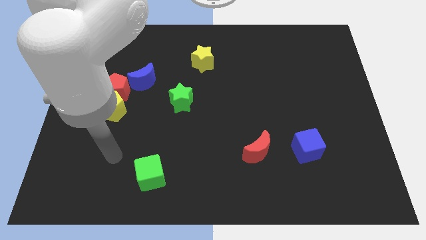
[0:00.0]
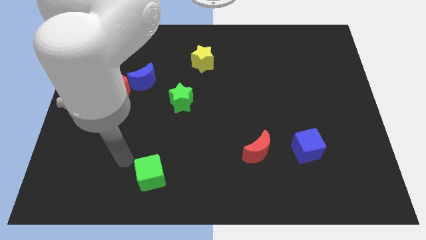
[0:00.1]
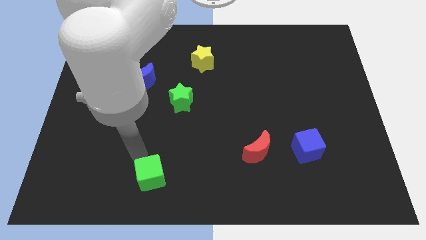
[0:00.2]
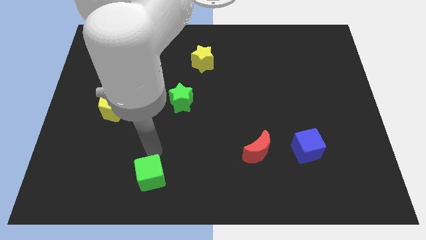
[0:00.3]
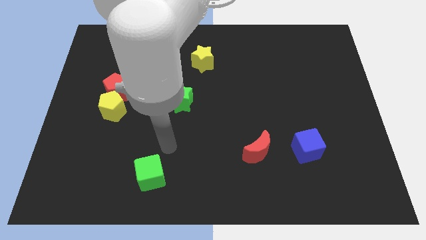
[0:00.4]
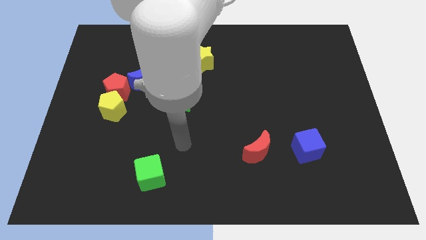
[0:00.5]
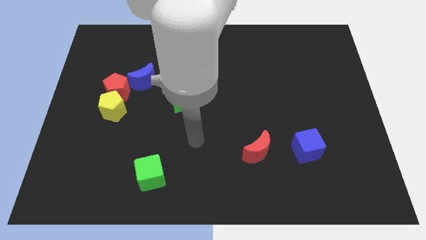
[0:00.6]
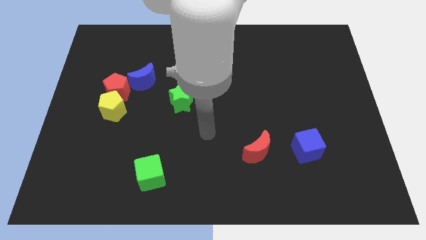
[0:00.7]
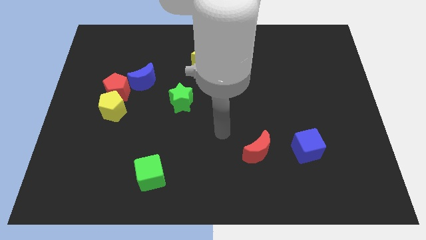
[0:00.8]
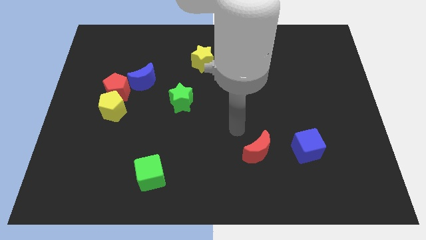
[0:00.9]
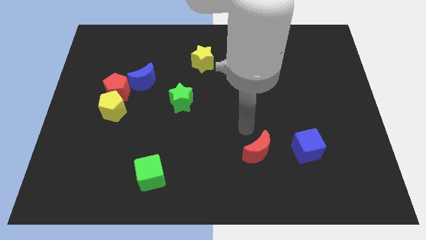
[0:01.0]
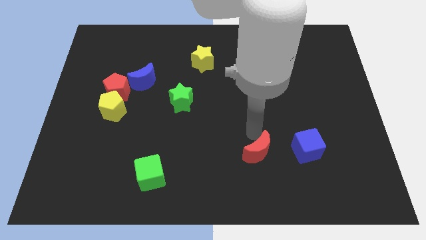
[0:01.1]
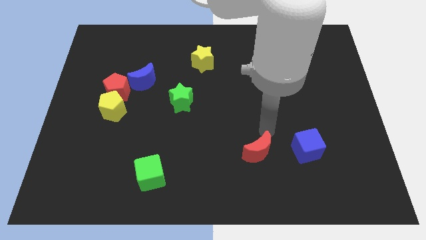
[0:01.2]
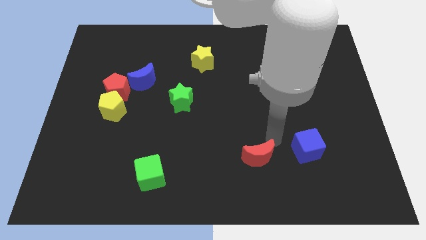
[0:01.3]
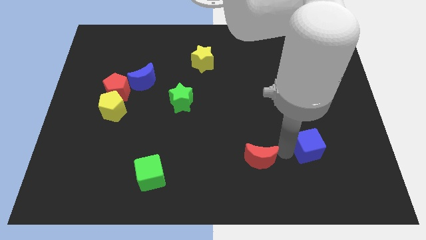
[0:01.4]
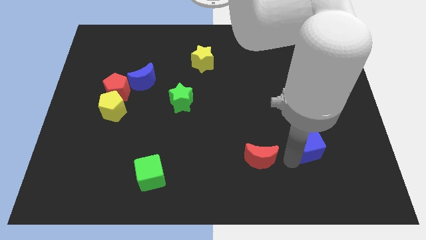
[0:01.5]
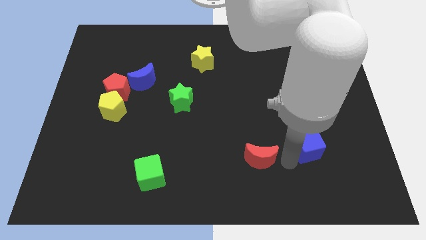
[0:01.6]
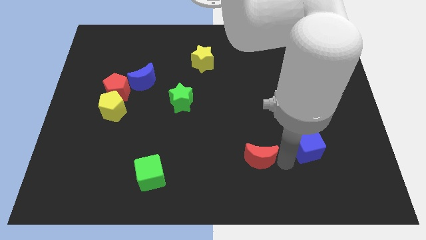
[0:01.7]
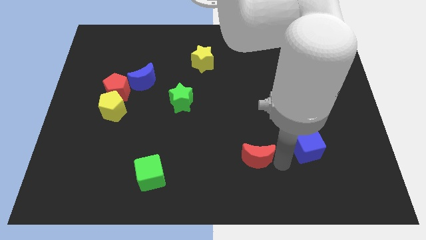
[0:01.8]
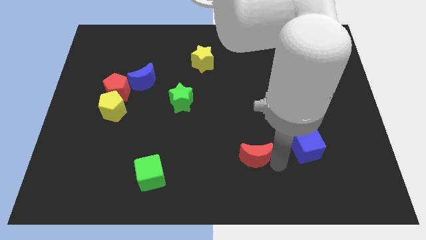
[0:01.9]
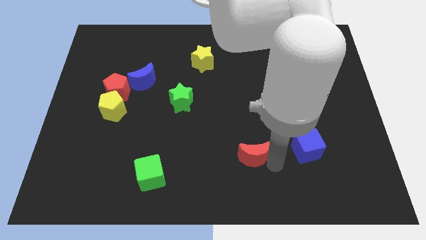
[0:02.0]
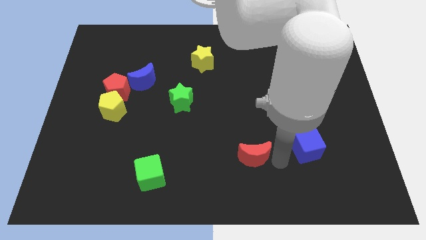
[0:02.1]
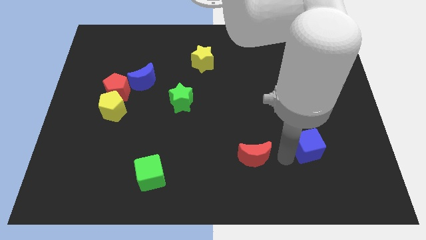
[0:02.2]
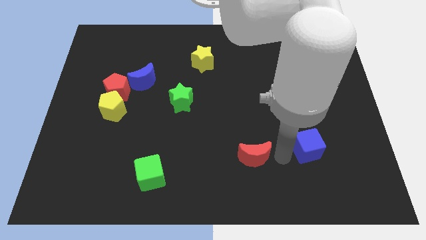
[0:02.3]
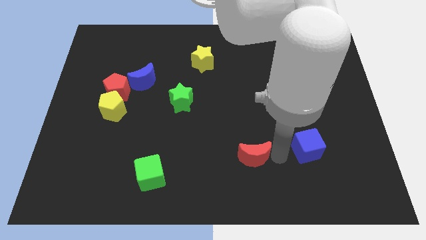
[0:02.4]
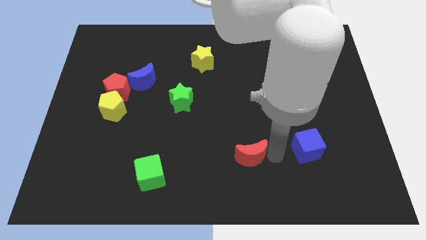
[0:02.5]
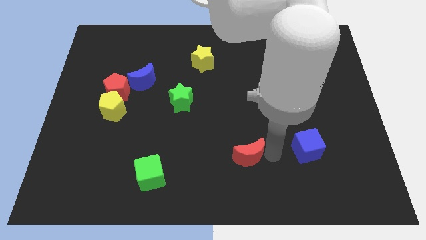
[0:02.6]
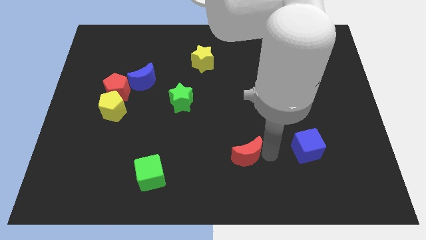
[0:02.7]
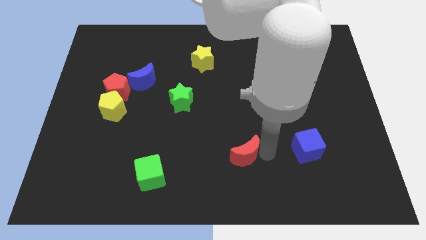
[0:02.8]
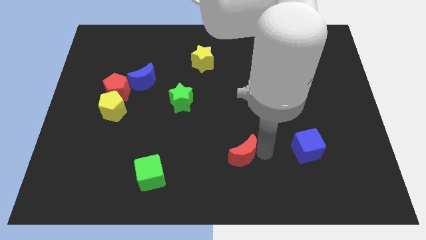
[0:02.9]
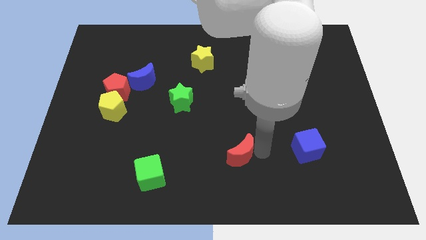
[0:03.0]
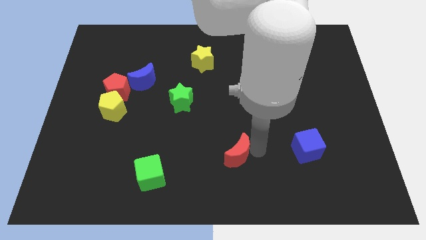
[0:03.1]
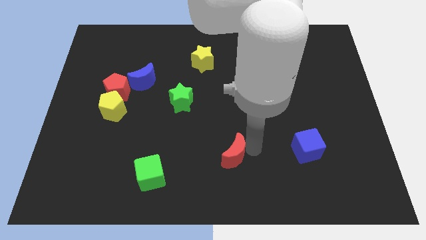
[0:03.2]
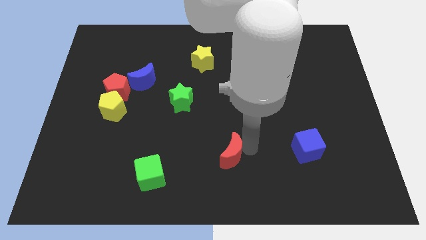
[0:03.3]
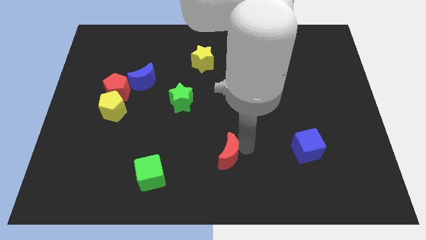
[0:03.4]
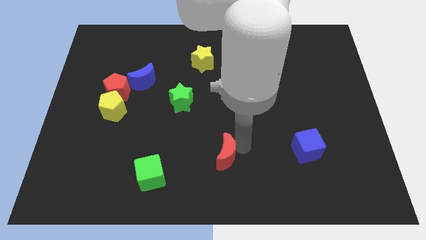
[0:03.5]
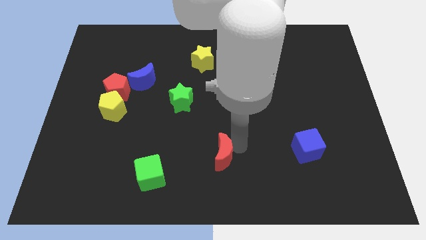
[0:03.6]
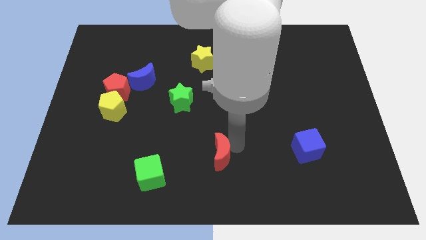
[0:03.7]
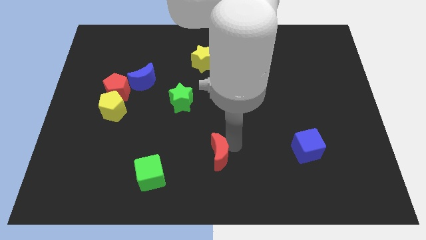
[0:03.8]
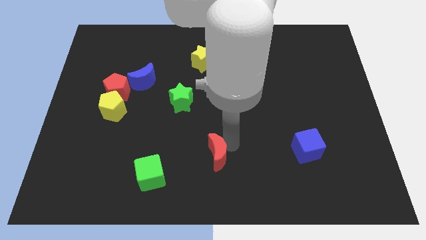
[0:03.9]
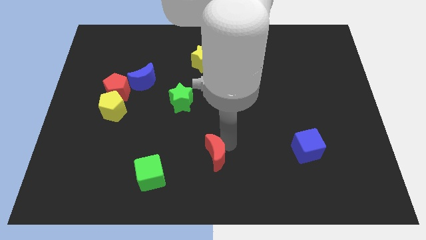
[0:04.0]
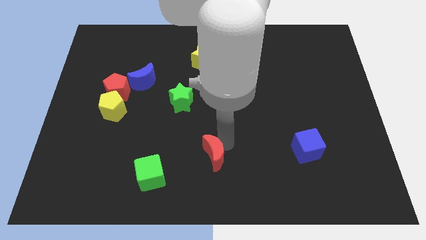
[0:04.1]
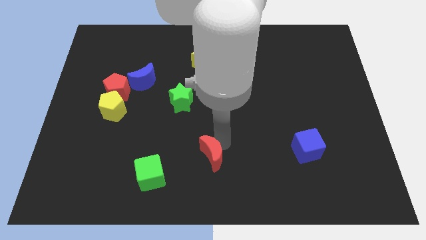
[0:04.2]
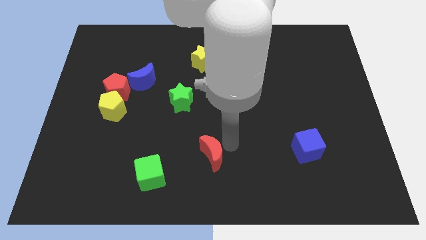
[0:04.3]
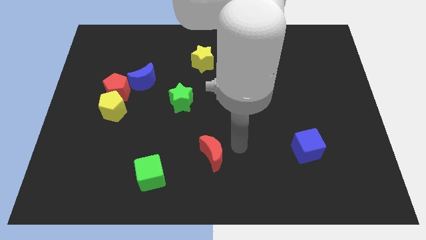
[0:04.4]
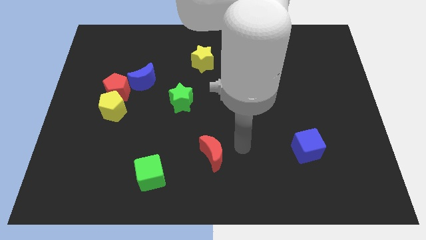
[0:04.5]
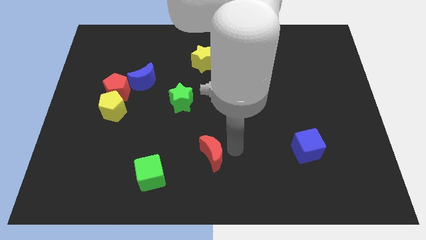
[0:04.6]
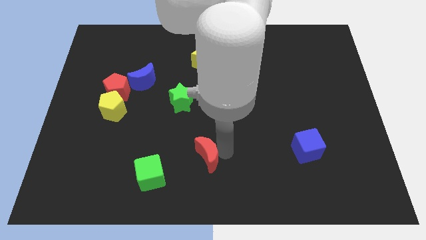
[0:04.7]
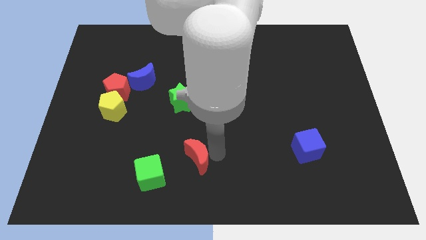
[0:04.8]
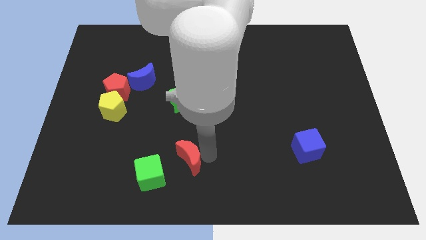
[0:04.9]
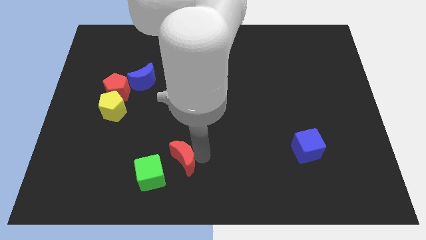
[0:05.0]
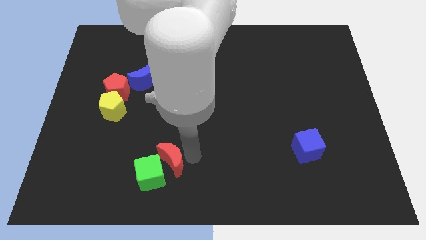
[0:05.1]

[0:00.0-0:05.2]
put the red moon to the green cube

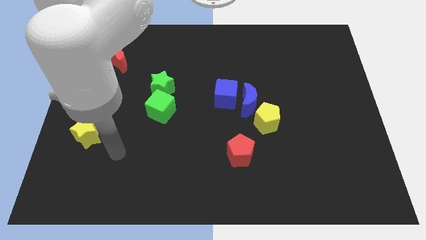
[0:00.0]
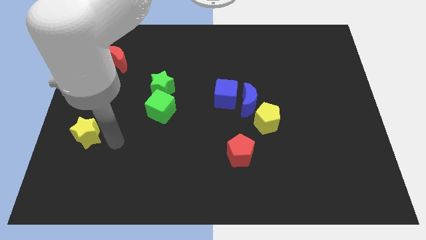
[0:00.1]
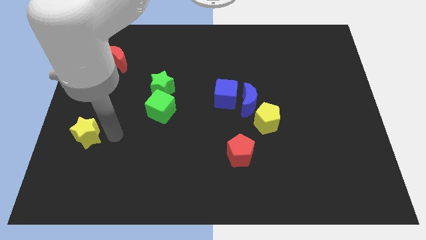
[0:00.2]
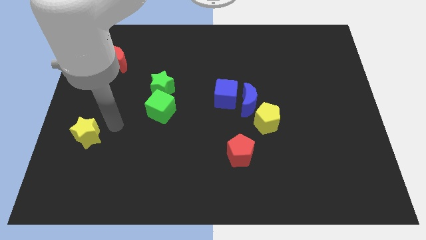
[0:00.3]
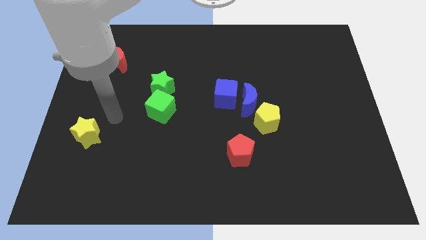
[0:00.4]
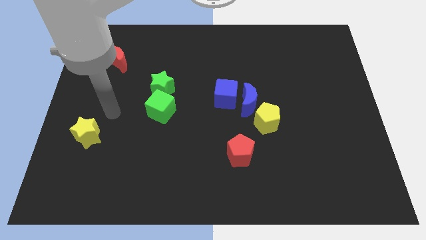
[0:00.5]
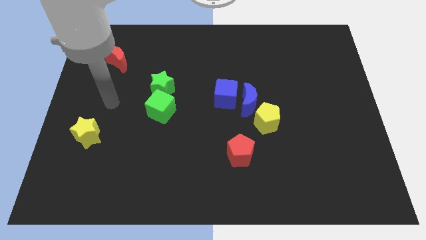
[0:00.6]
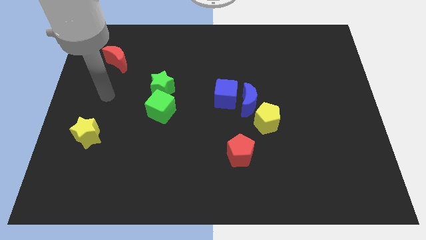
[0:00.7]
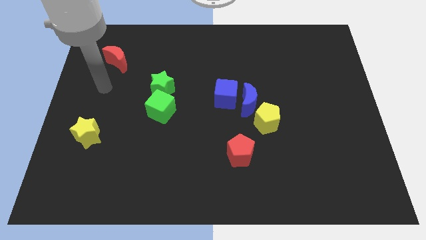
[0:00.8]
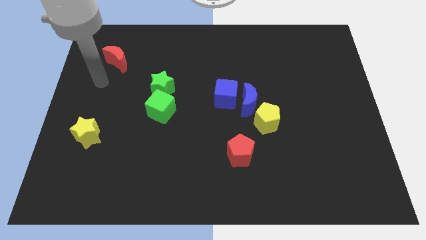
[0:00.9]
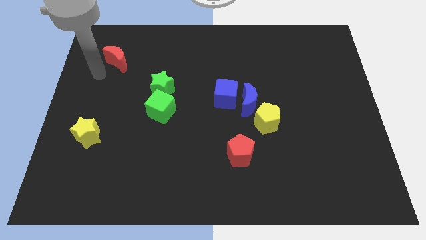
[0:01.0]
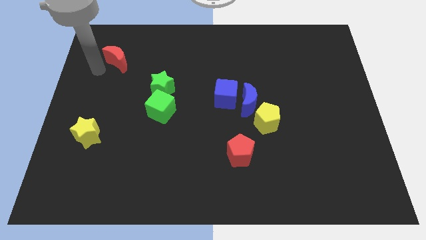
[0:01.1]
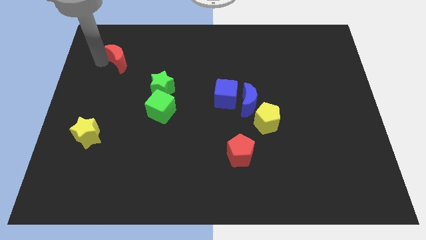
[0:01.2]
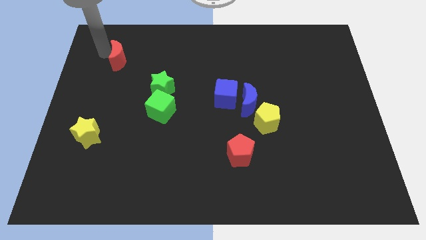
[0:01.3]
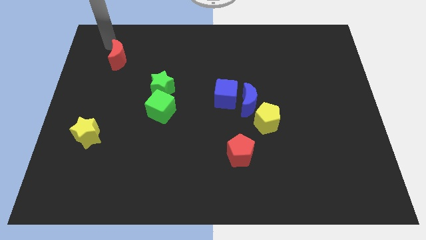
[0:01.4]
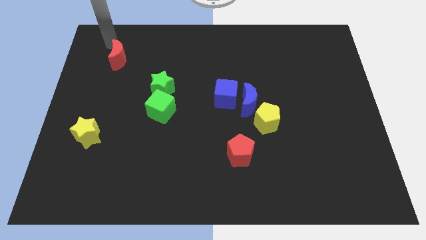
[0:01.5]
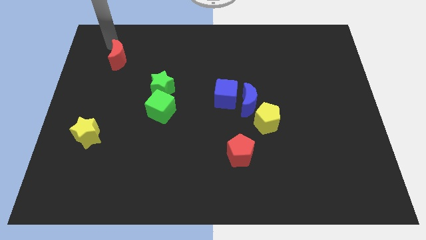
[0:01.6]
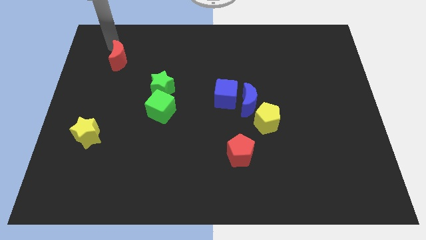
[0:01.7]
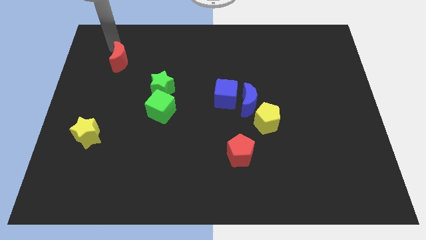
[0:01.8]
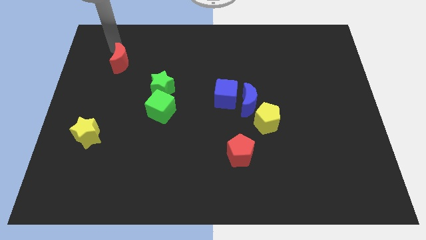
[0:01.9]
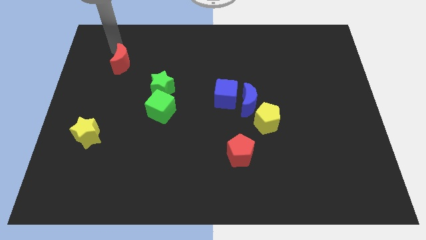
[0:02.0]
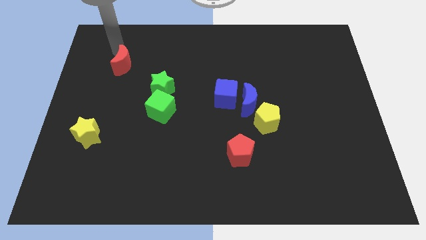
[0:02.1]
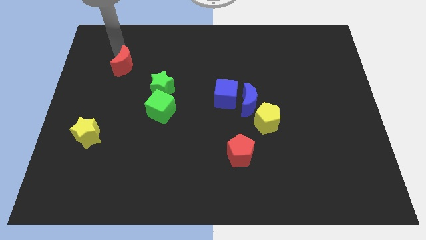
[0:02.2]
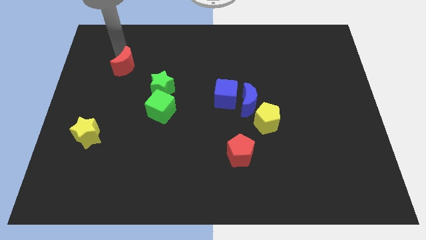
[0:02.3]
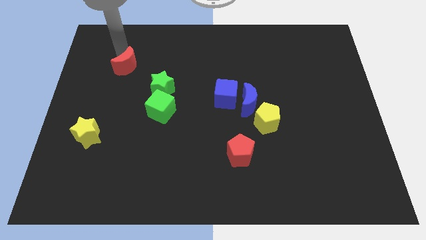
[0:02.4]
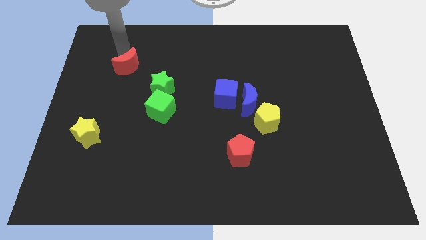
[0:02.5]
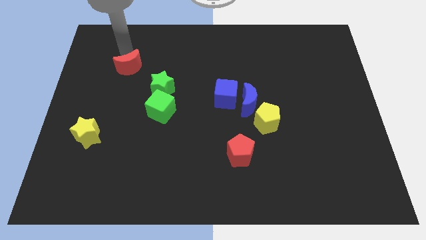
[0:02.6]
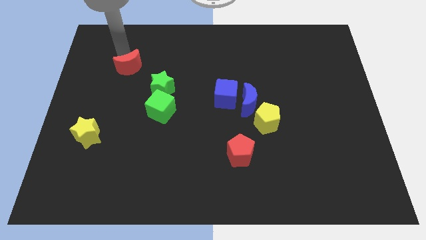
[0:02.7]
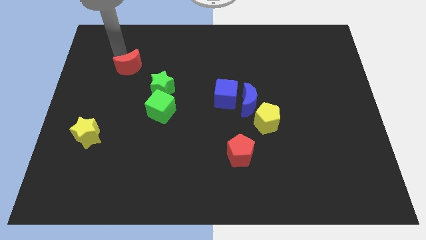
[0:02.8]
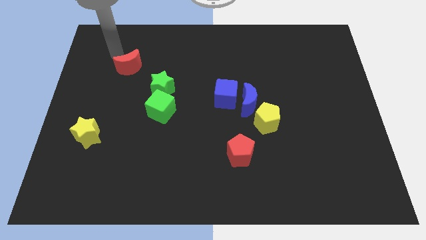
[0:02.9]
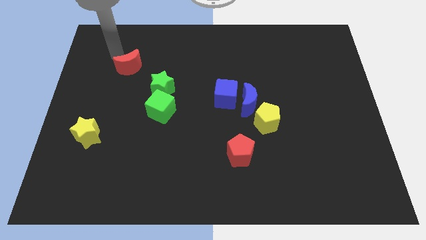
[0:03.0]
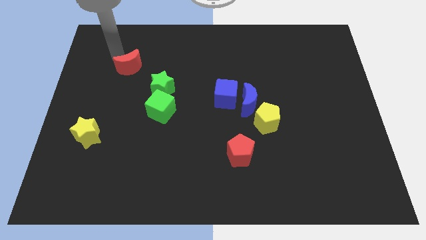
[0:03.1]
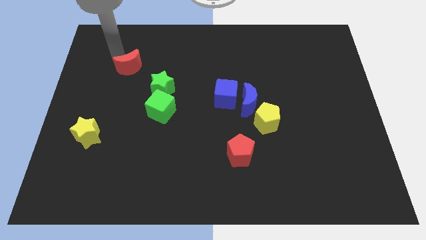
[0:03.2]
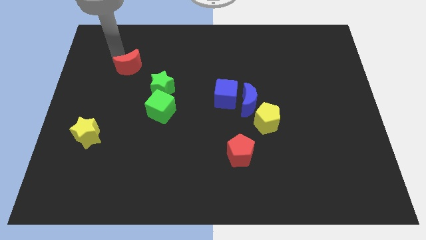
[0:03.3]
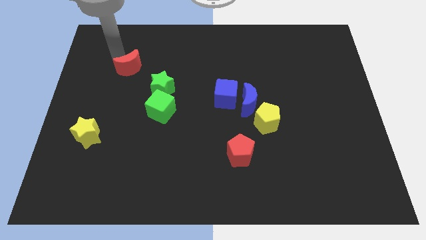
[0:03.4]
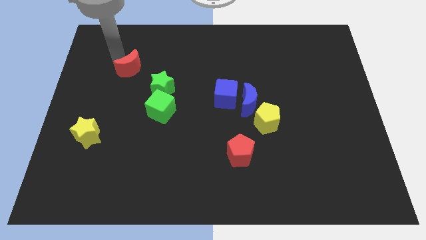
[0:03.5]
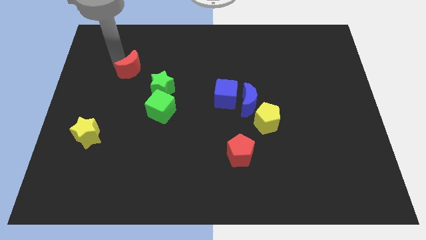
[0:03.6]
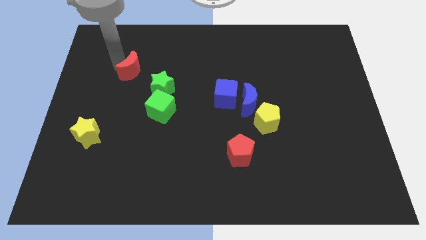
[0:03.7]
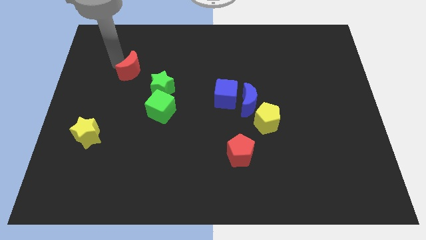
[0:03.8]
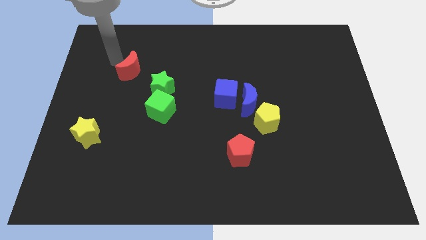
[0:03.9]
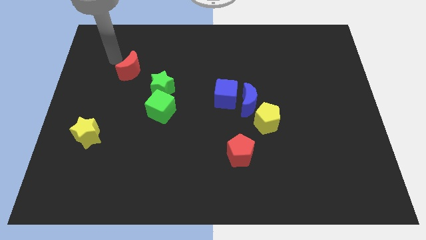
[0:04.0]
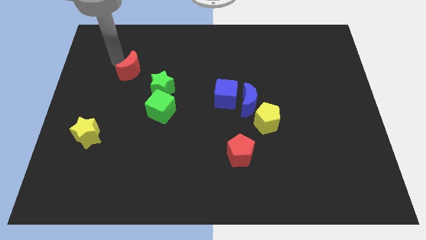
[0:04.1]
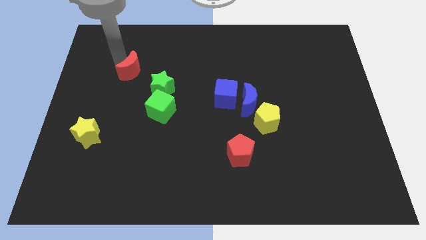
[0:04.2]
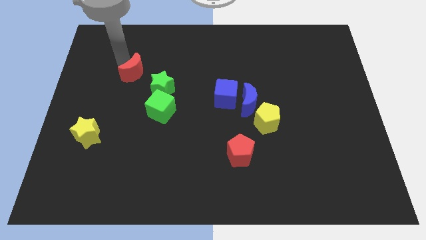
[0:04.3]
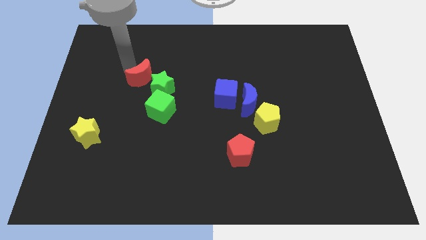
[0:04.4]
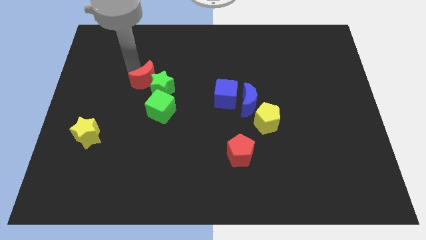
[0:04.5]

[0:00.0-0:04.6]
push the red moon close to the green star
